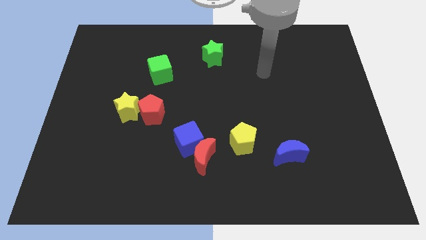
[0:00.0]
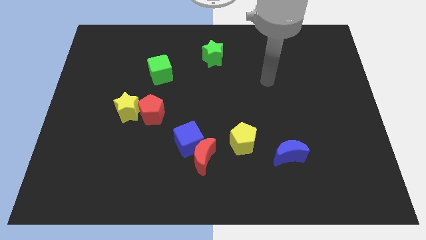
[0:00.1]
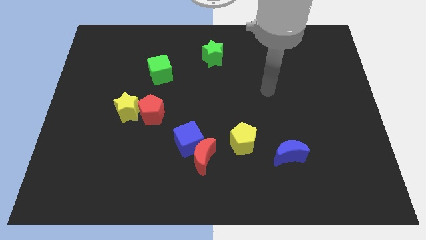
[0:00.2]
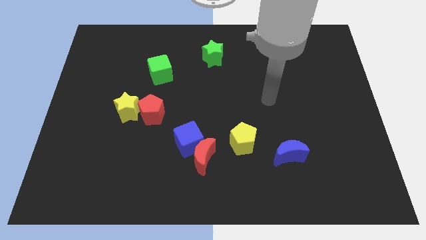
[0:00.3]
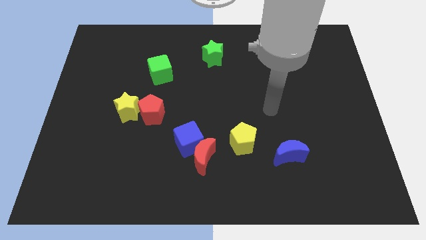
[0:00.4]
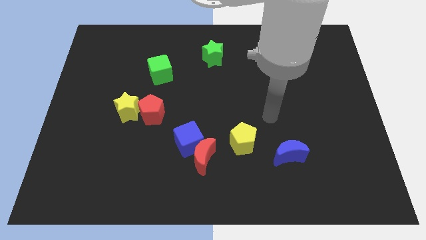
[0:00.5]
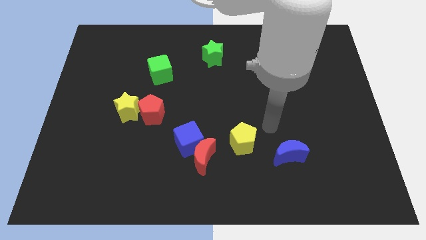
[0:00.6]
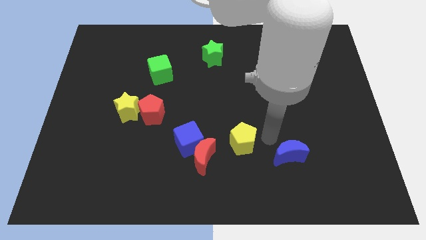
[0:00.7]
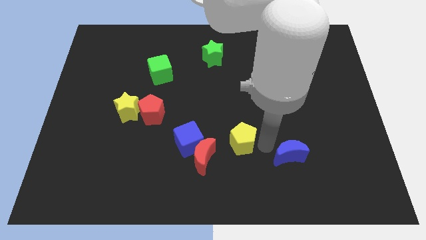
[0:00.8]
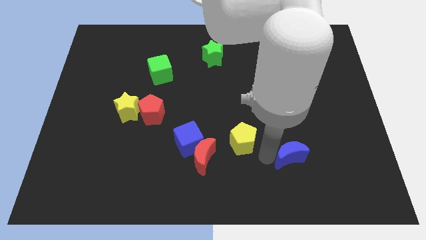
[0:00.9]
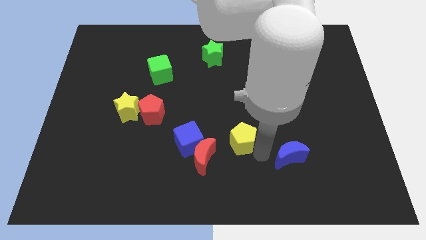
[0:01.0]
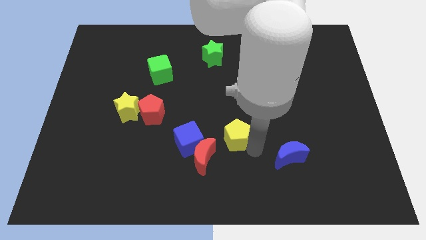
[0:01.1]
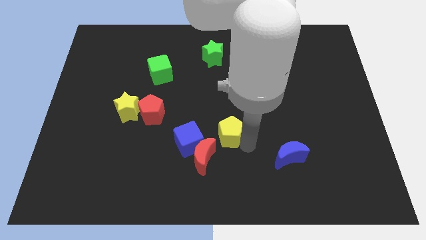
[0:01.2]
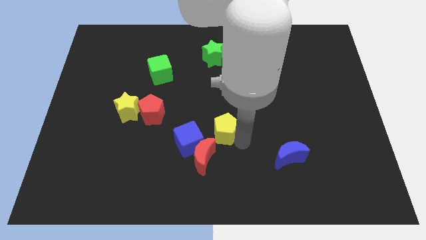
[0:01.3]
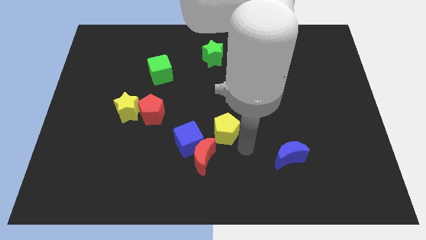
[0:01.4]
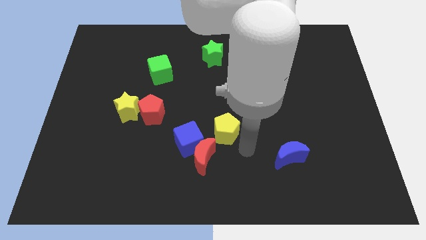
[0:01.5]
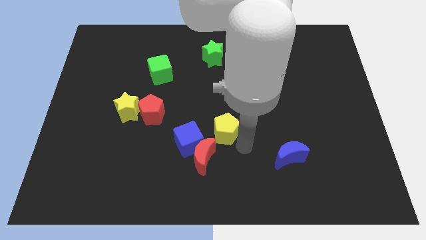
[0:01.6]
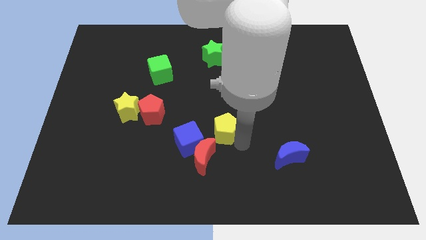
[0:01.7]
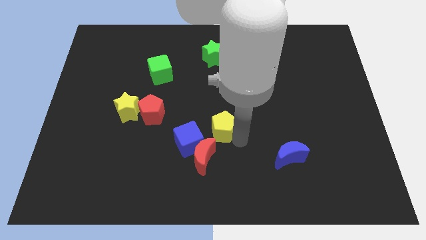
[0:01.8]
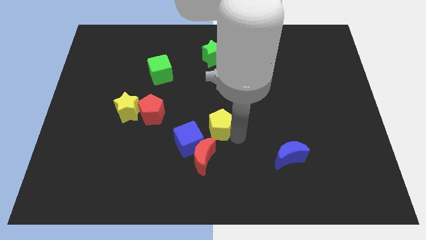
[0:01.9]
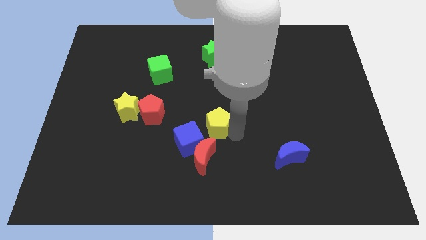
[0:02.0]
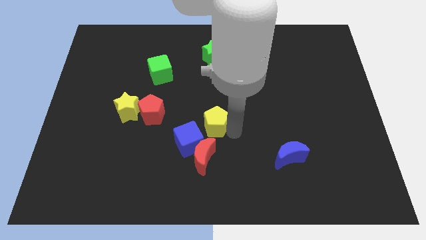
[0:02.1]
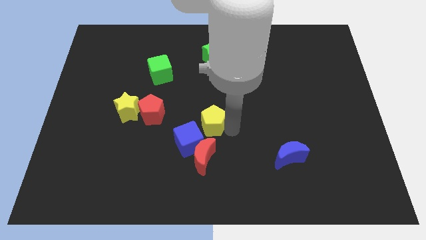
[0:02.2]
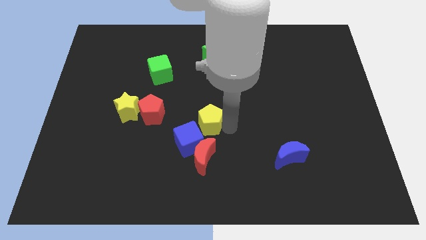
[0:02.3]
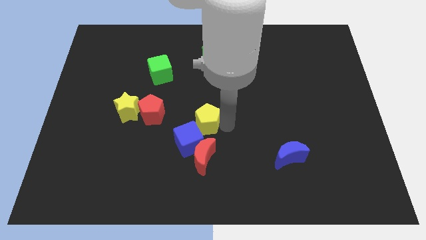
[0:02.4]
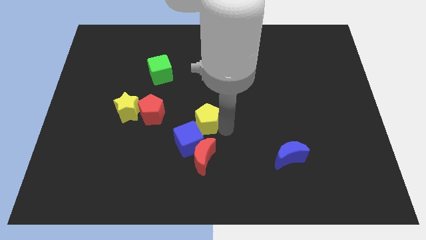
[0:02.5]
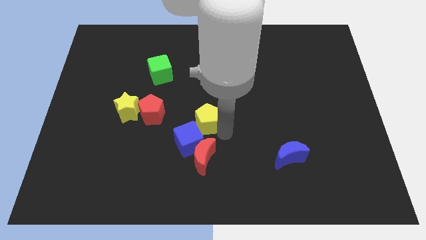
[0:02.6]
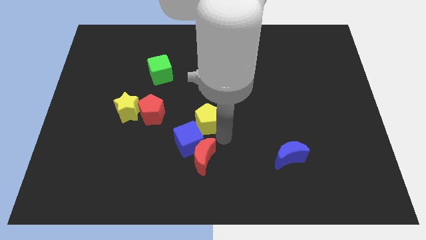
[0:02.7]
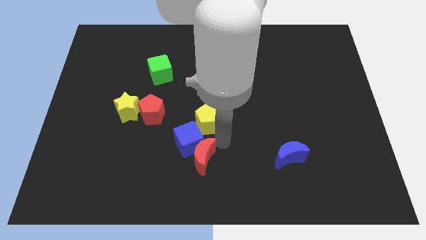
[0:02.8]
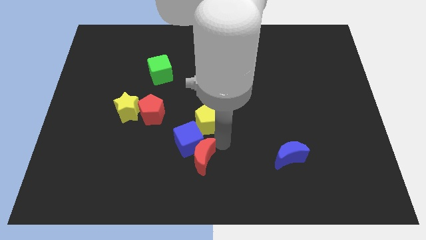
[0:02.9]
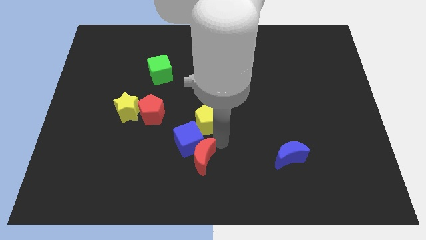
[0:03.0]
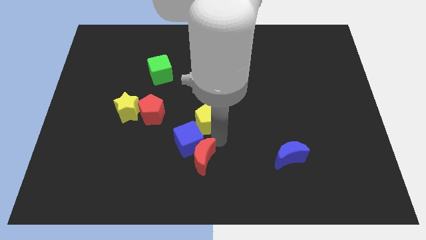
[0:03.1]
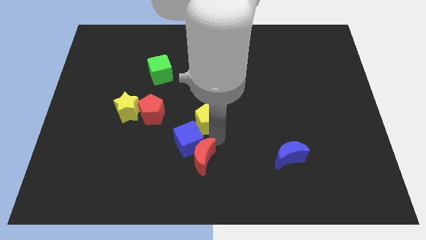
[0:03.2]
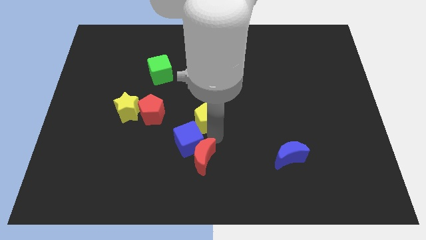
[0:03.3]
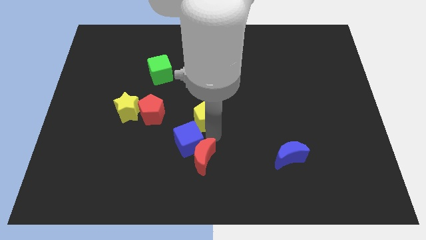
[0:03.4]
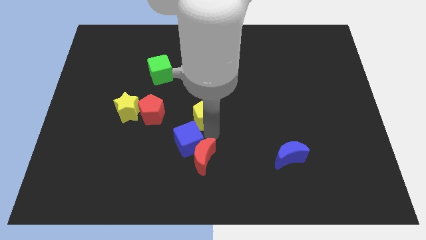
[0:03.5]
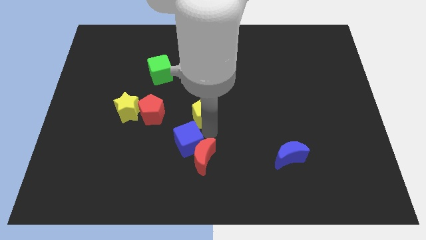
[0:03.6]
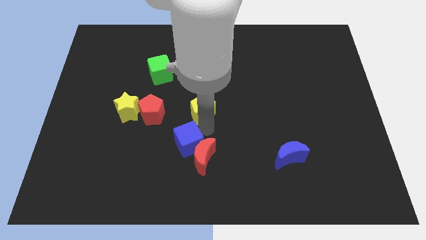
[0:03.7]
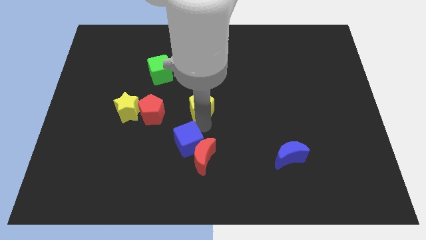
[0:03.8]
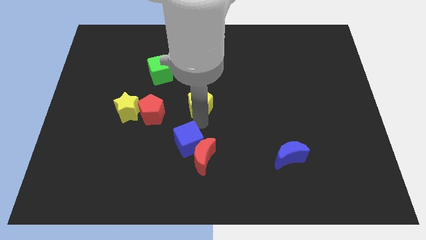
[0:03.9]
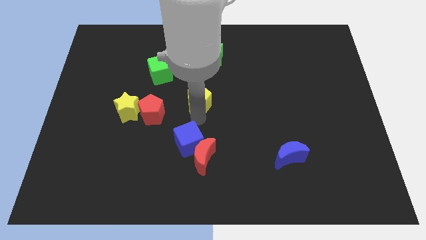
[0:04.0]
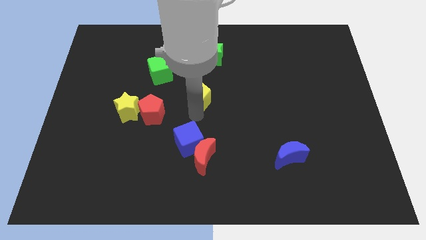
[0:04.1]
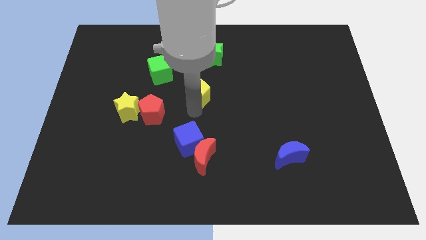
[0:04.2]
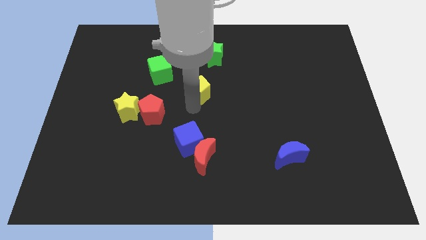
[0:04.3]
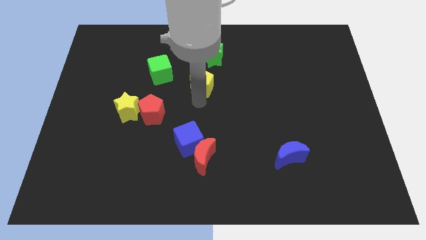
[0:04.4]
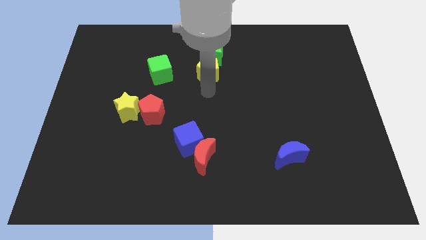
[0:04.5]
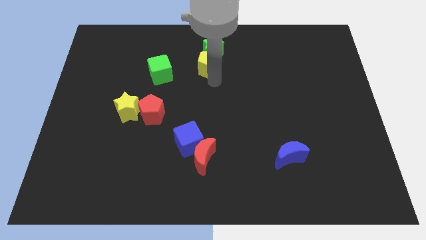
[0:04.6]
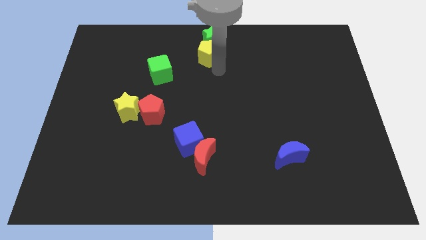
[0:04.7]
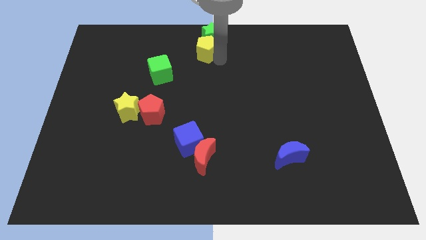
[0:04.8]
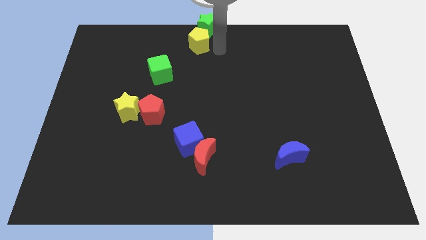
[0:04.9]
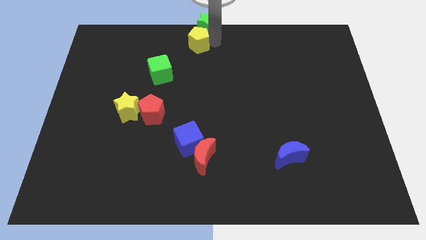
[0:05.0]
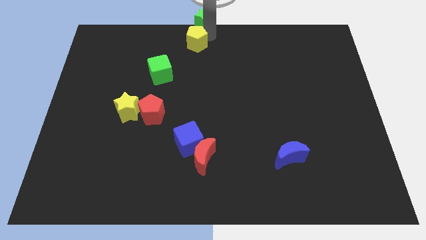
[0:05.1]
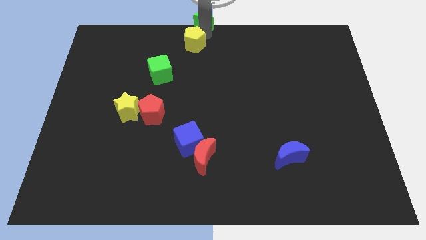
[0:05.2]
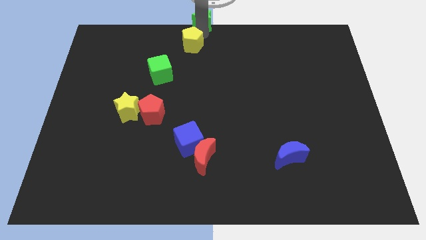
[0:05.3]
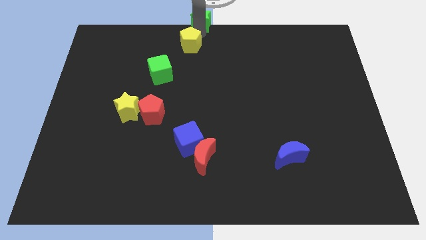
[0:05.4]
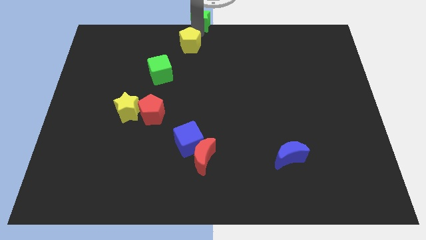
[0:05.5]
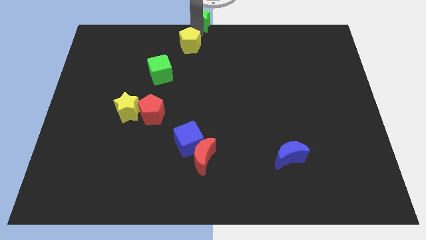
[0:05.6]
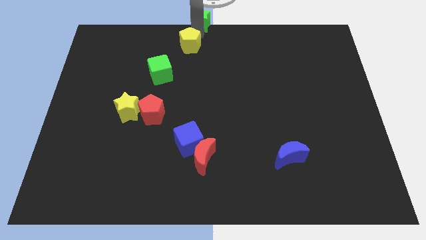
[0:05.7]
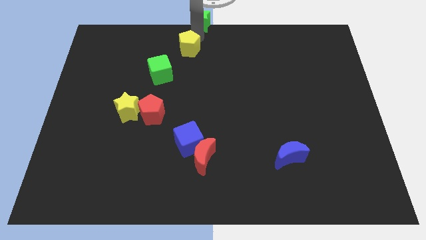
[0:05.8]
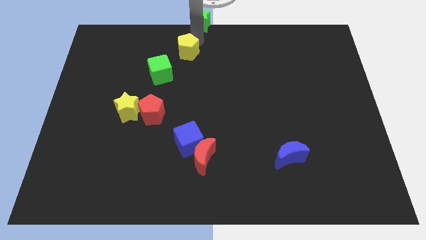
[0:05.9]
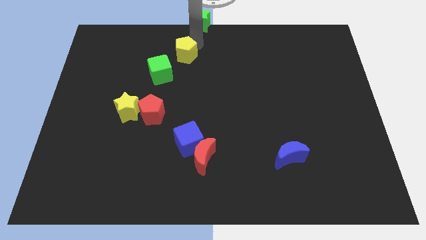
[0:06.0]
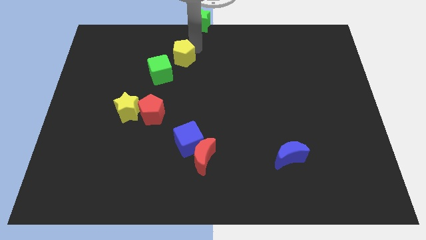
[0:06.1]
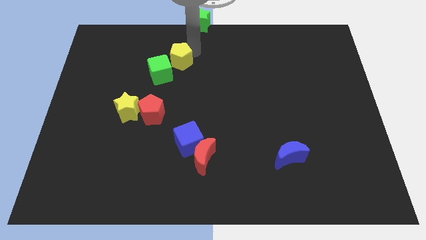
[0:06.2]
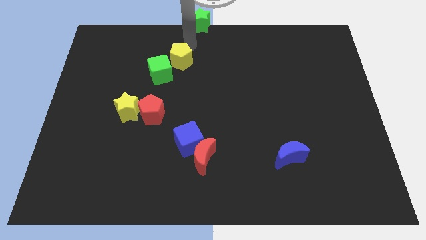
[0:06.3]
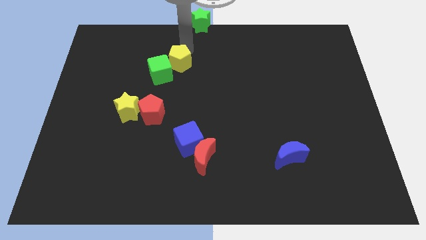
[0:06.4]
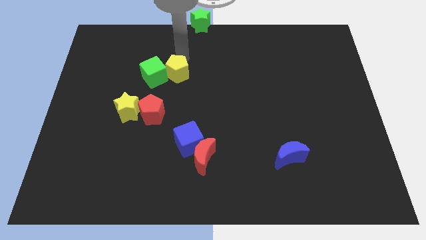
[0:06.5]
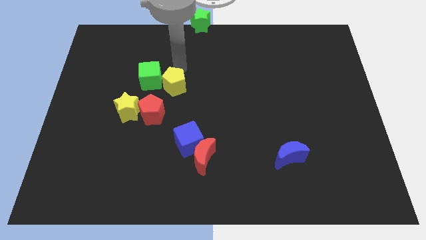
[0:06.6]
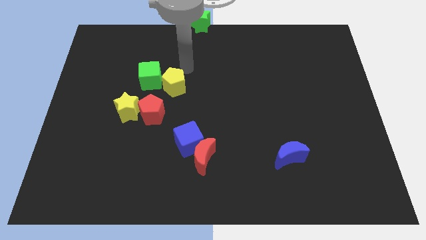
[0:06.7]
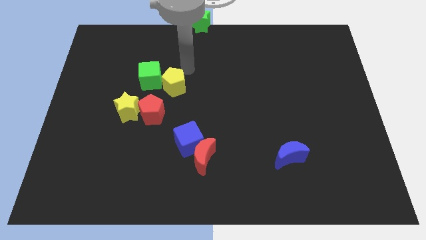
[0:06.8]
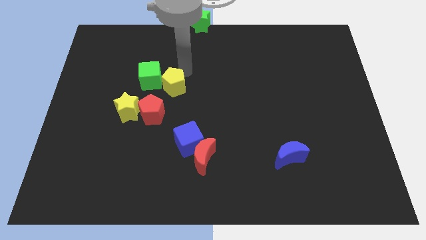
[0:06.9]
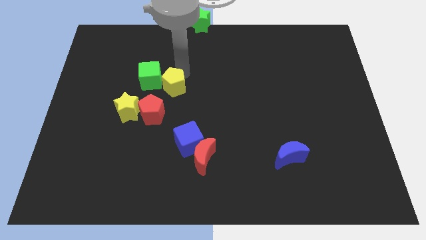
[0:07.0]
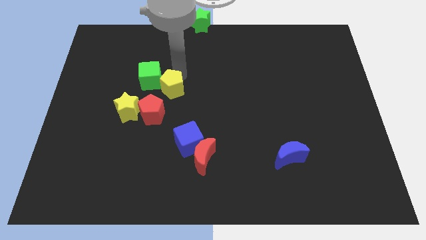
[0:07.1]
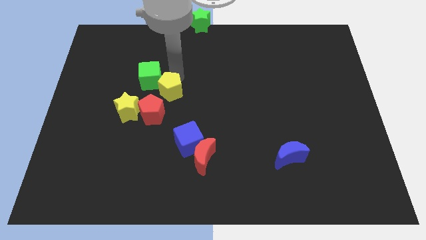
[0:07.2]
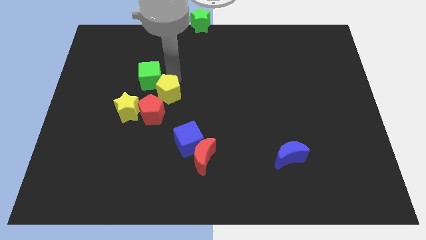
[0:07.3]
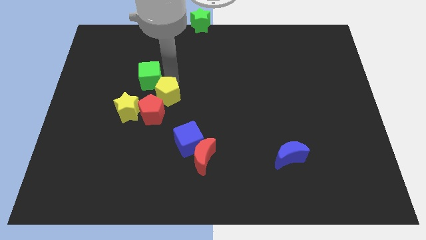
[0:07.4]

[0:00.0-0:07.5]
slide the yellow pentagon towards the red pentagon

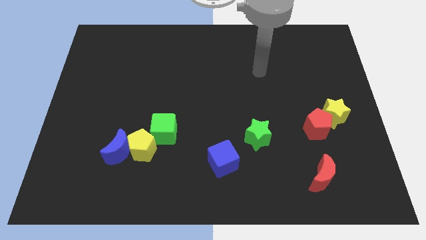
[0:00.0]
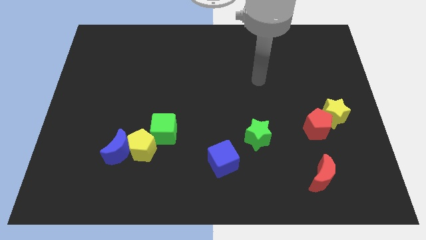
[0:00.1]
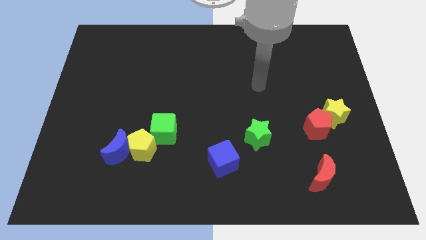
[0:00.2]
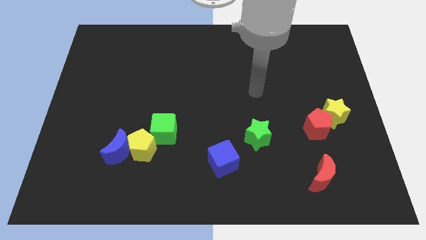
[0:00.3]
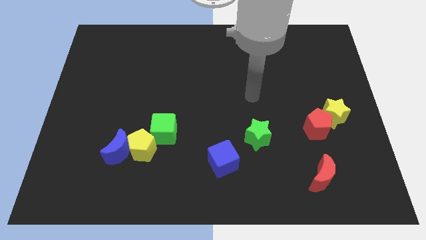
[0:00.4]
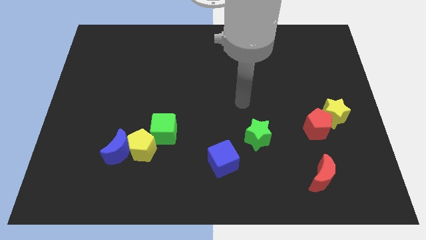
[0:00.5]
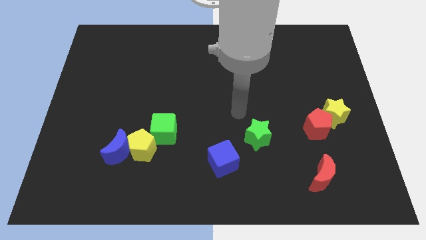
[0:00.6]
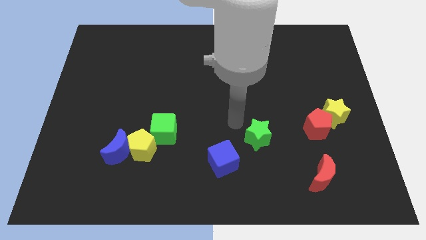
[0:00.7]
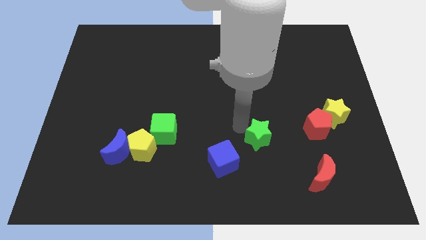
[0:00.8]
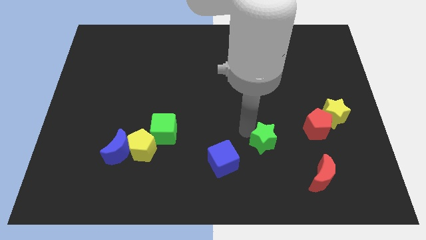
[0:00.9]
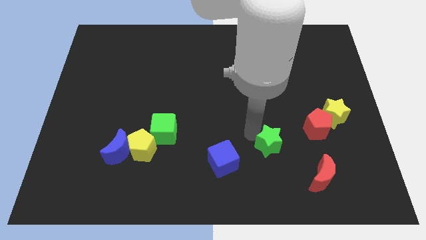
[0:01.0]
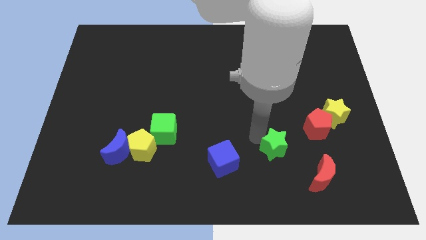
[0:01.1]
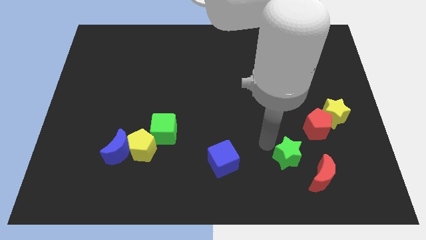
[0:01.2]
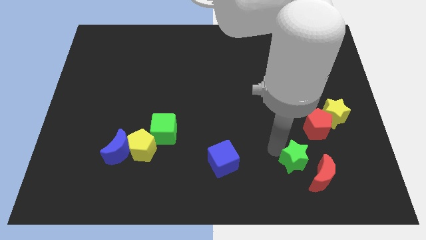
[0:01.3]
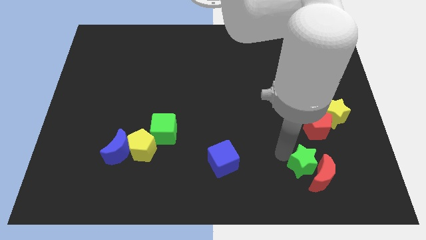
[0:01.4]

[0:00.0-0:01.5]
put the green star close to the red moon
